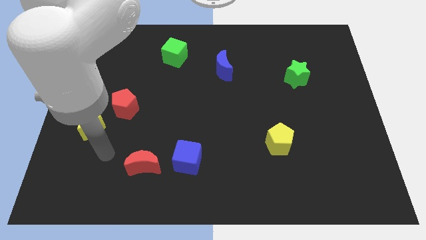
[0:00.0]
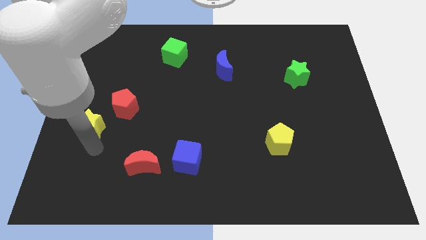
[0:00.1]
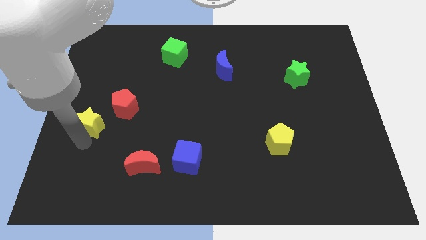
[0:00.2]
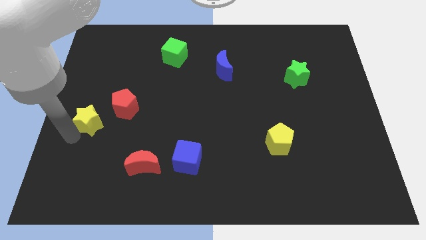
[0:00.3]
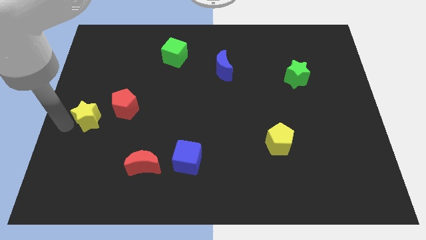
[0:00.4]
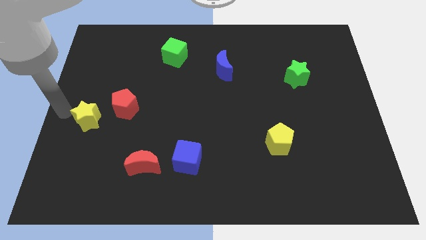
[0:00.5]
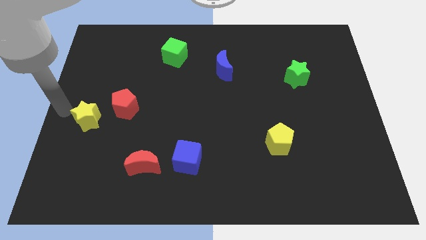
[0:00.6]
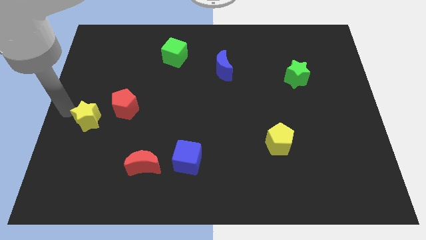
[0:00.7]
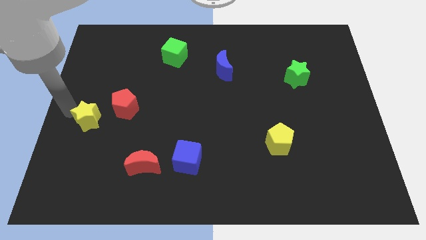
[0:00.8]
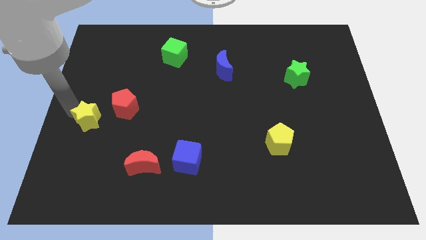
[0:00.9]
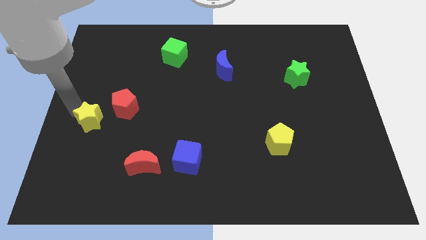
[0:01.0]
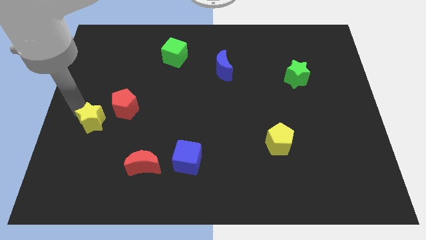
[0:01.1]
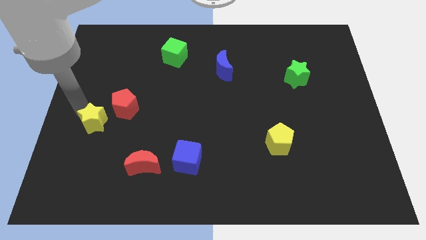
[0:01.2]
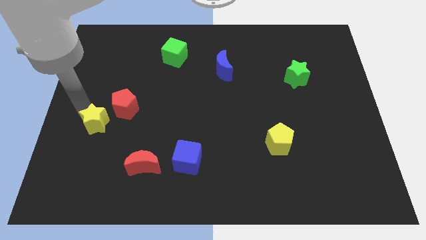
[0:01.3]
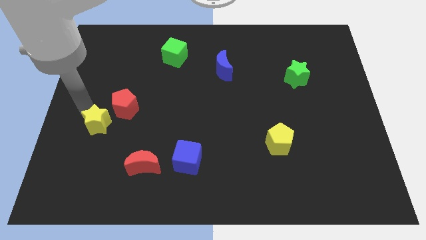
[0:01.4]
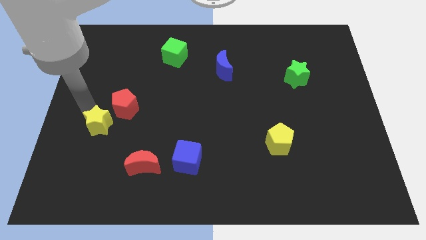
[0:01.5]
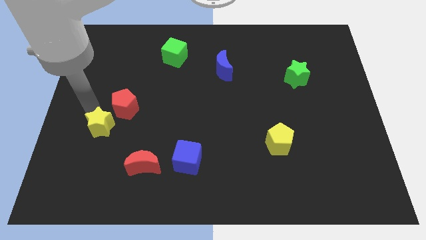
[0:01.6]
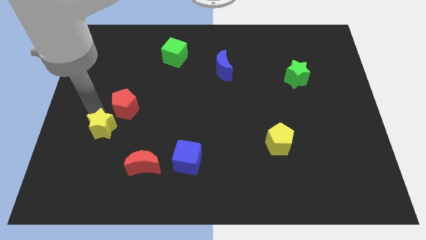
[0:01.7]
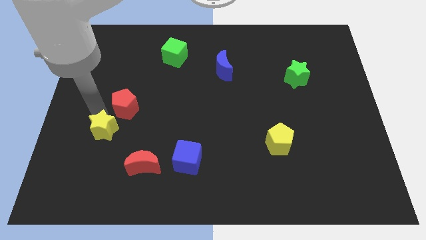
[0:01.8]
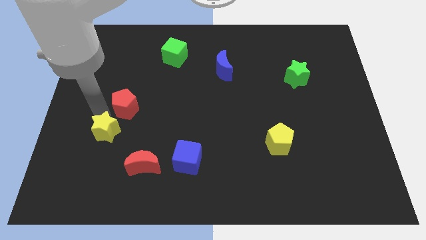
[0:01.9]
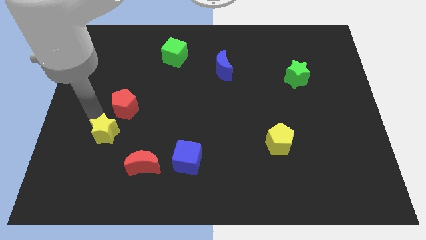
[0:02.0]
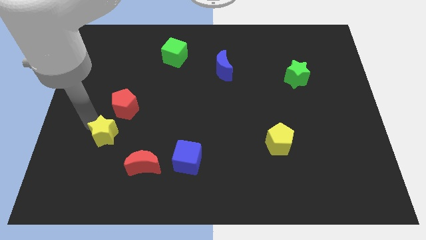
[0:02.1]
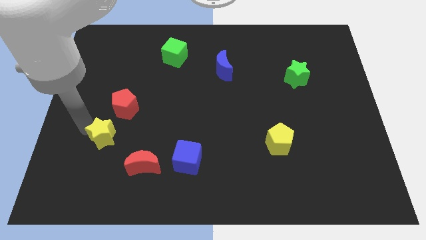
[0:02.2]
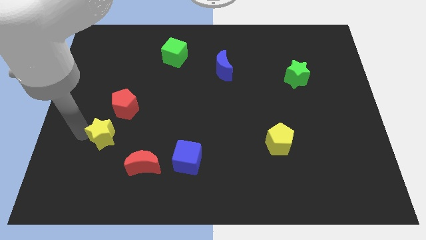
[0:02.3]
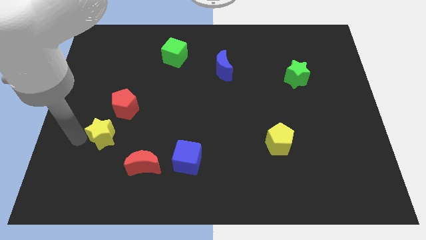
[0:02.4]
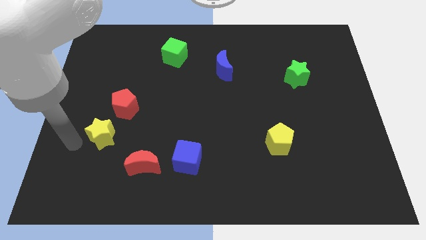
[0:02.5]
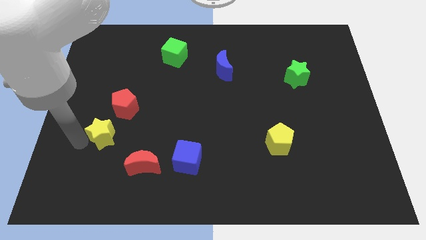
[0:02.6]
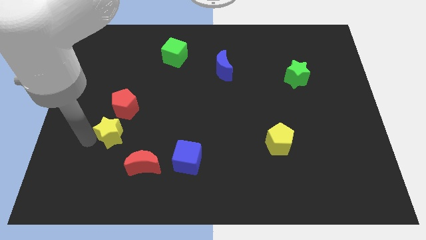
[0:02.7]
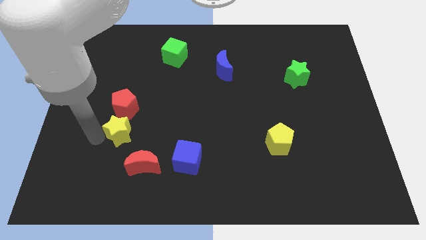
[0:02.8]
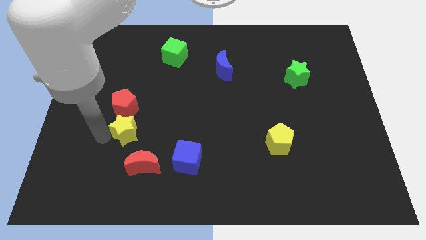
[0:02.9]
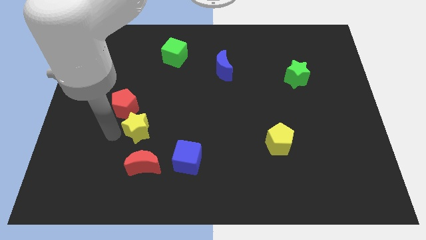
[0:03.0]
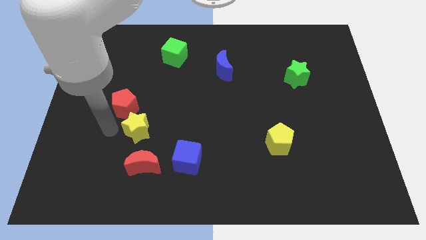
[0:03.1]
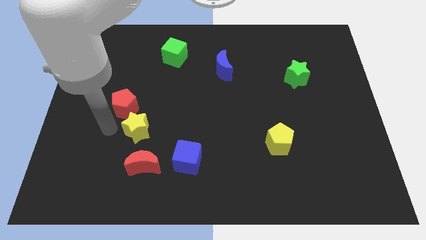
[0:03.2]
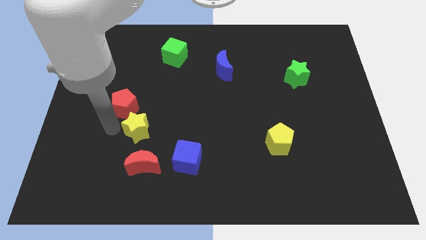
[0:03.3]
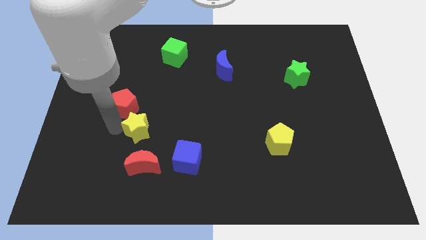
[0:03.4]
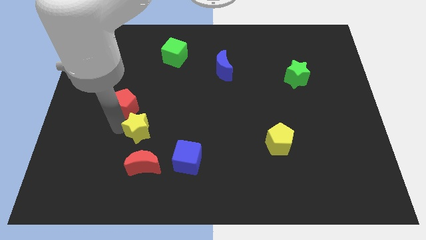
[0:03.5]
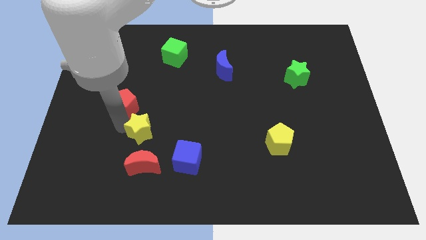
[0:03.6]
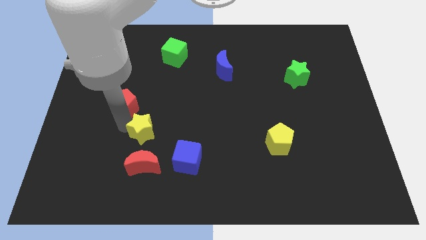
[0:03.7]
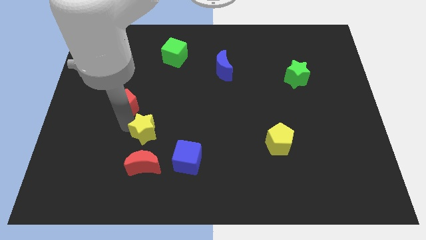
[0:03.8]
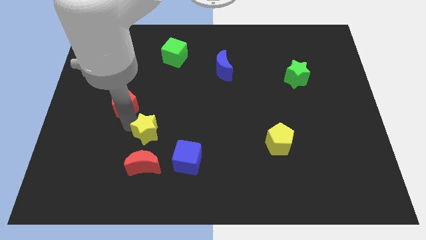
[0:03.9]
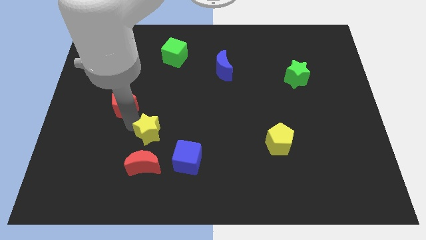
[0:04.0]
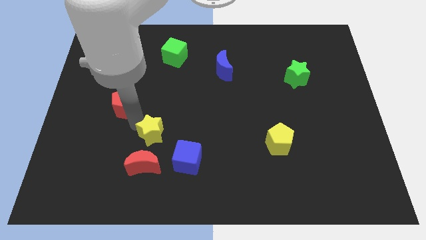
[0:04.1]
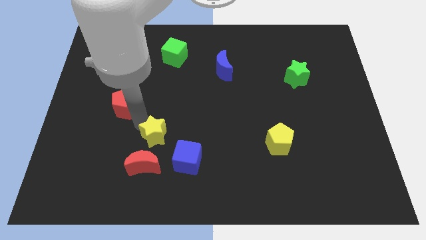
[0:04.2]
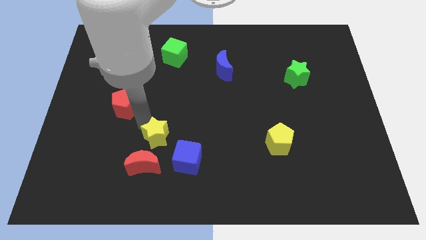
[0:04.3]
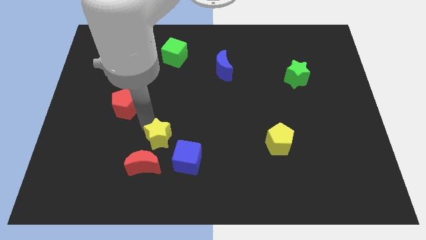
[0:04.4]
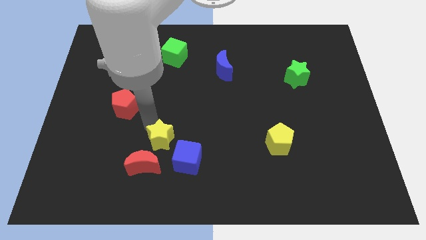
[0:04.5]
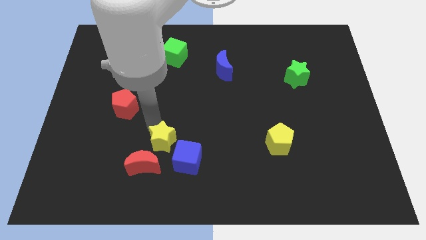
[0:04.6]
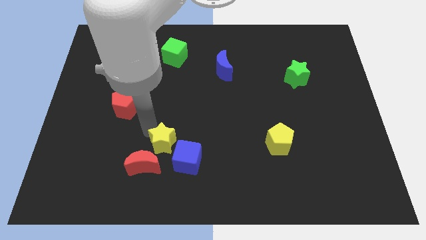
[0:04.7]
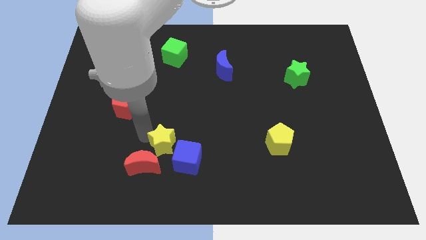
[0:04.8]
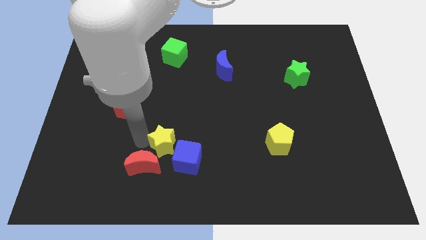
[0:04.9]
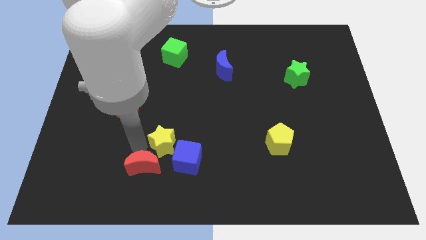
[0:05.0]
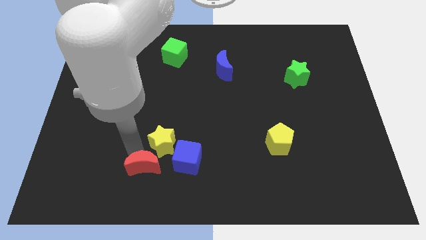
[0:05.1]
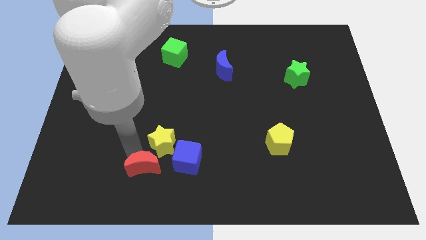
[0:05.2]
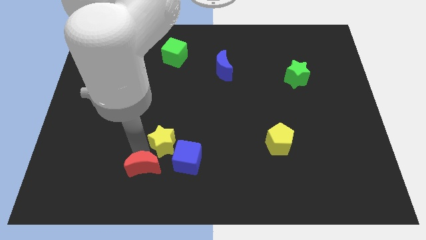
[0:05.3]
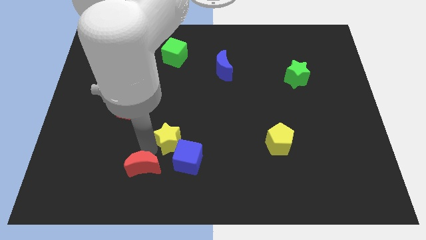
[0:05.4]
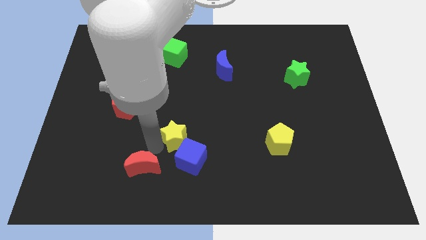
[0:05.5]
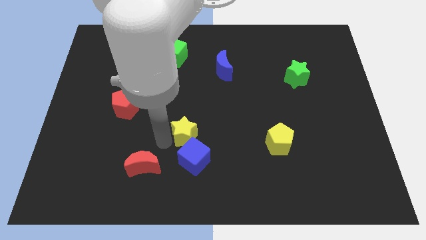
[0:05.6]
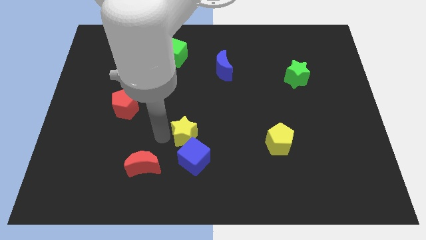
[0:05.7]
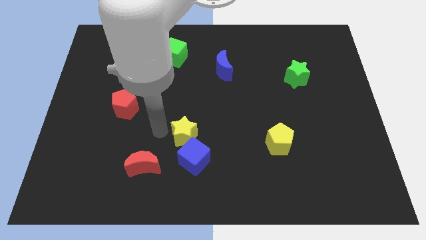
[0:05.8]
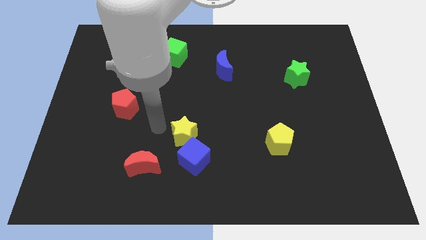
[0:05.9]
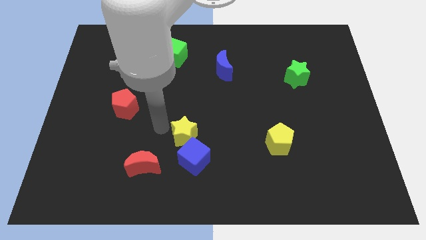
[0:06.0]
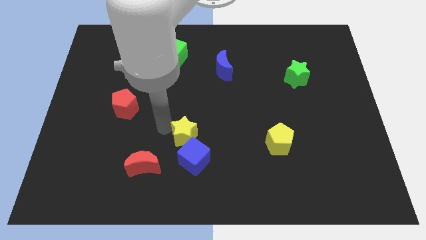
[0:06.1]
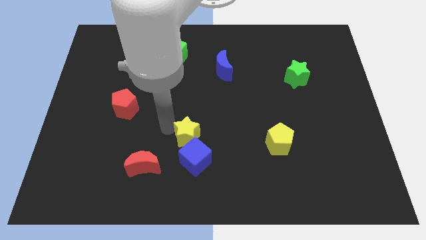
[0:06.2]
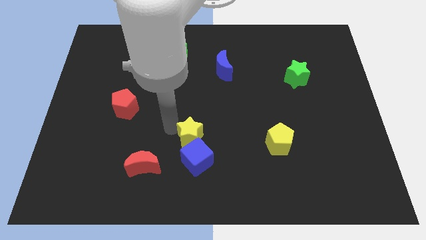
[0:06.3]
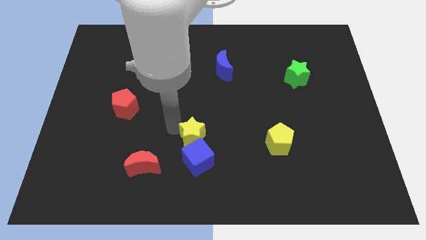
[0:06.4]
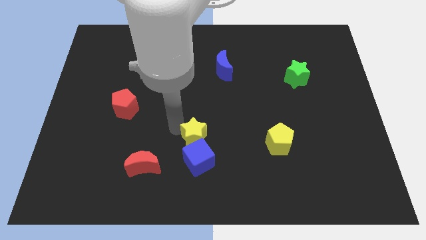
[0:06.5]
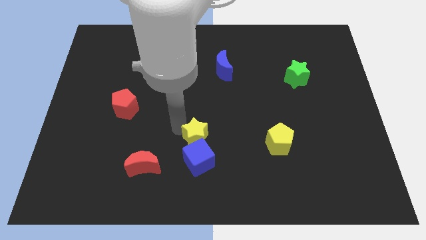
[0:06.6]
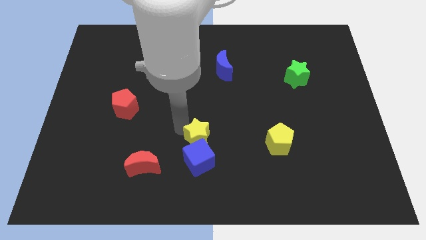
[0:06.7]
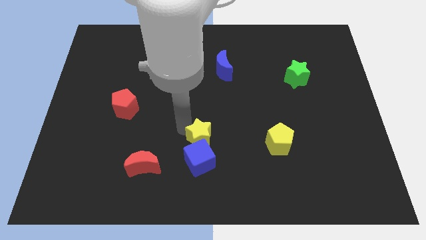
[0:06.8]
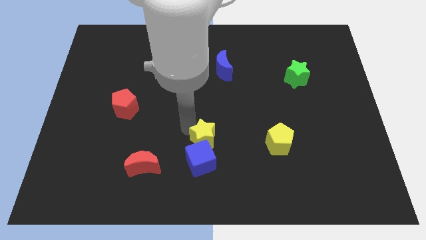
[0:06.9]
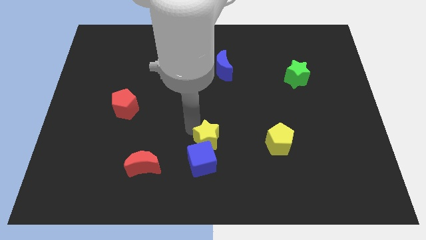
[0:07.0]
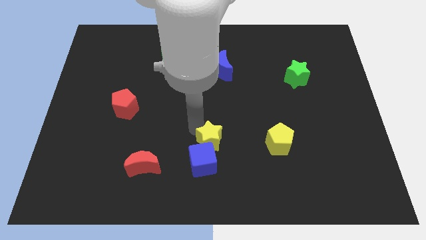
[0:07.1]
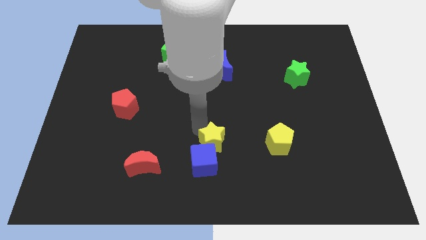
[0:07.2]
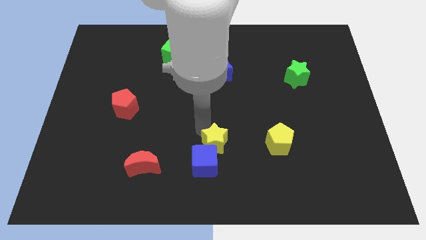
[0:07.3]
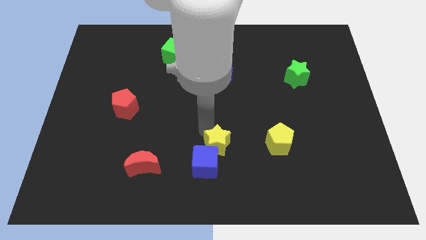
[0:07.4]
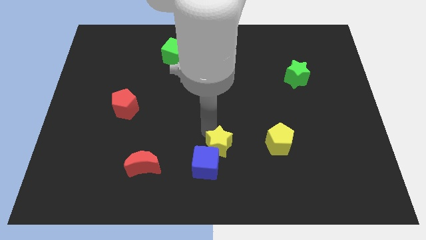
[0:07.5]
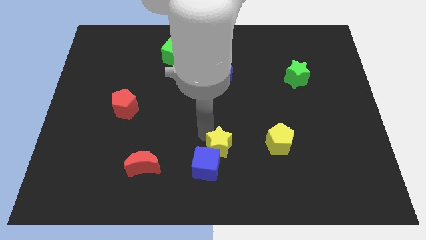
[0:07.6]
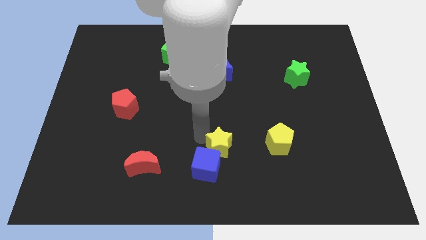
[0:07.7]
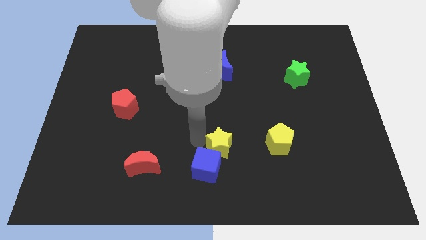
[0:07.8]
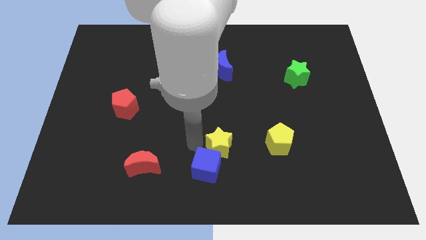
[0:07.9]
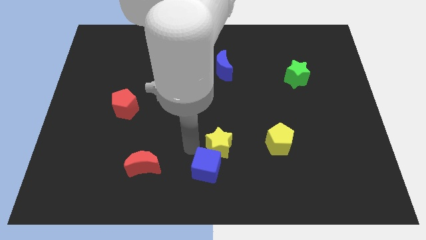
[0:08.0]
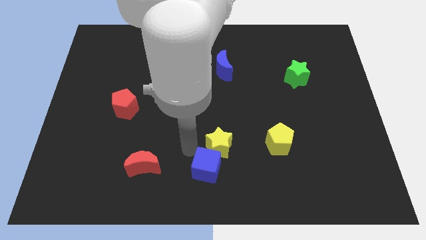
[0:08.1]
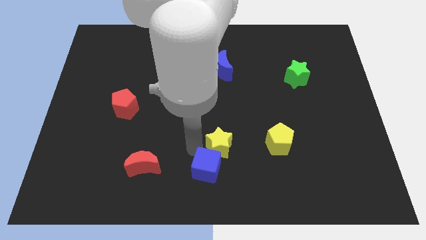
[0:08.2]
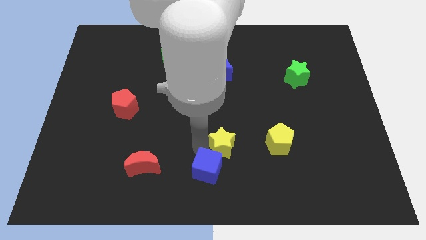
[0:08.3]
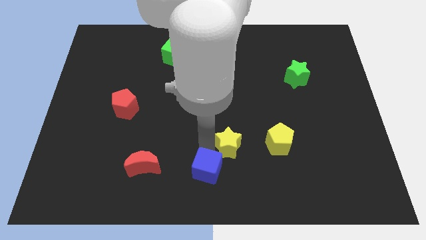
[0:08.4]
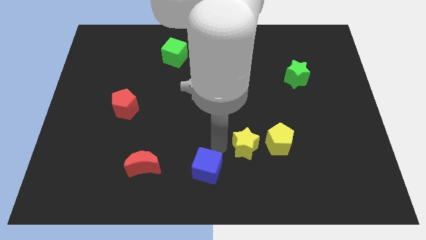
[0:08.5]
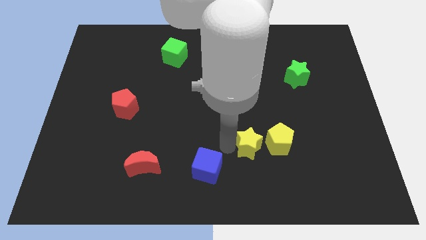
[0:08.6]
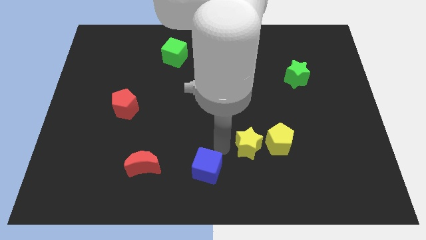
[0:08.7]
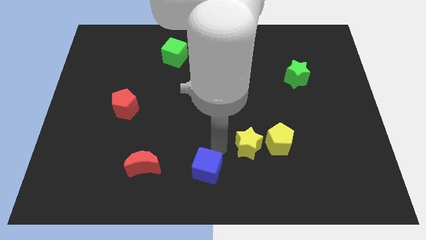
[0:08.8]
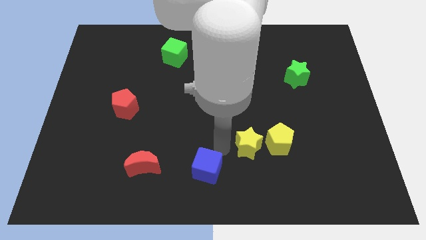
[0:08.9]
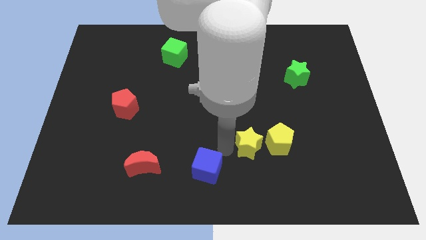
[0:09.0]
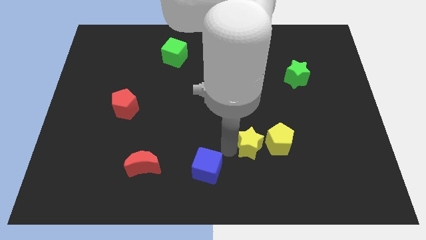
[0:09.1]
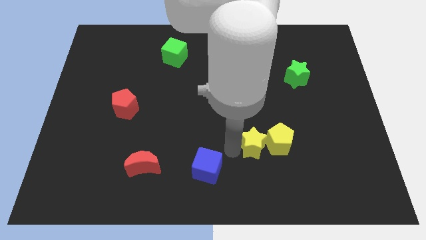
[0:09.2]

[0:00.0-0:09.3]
put the yellow star next to the yellow pentagon
